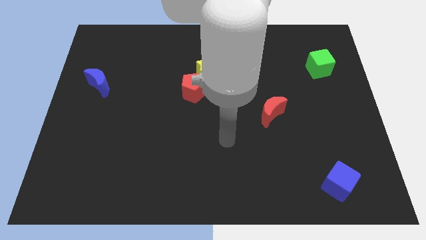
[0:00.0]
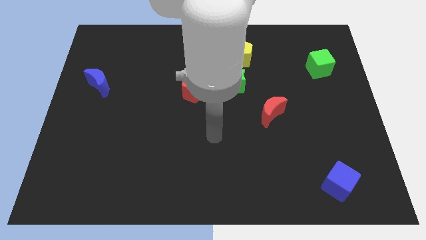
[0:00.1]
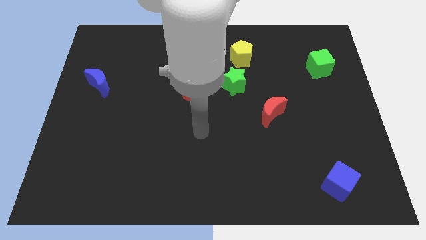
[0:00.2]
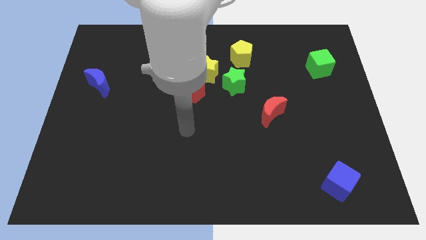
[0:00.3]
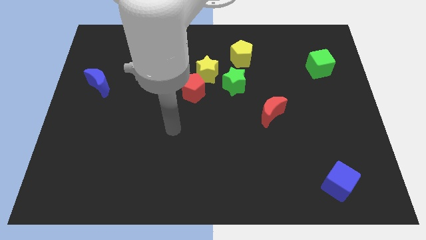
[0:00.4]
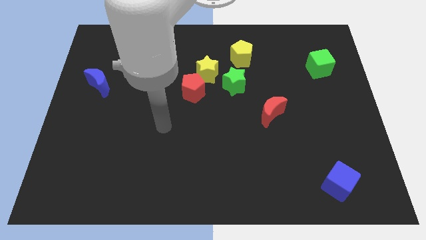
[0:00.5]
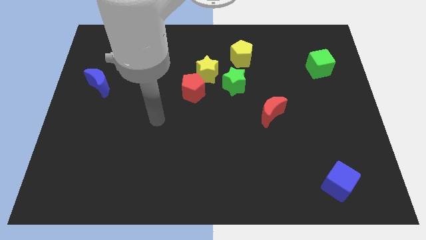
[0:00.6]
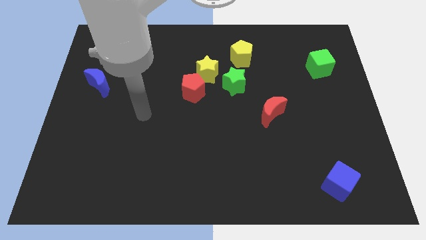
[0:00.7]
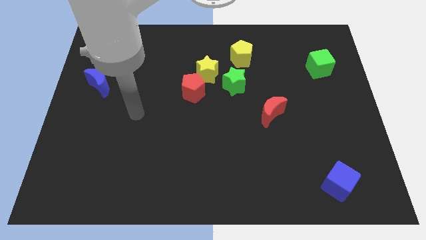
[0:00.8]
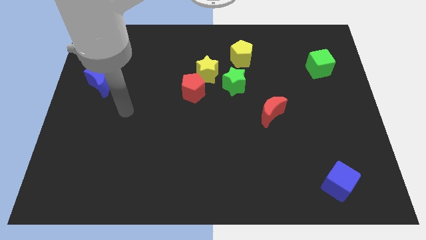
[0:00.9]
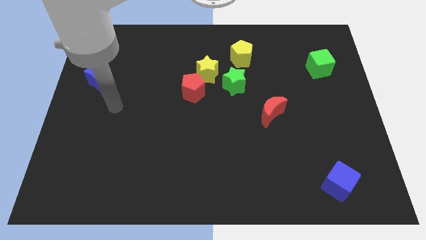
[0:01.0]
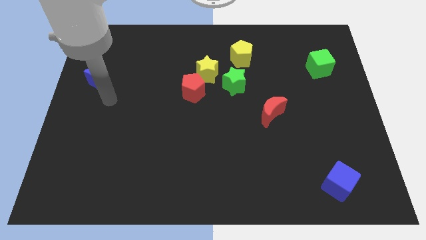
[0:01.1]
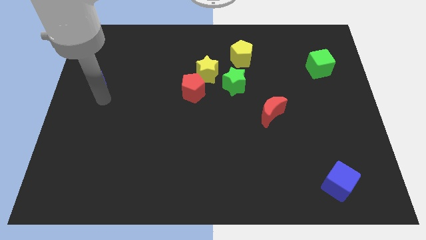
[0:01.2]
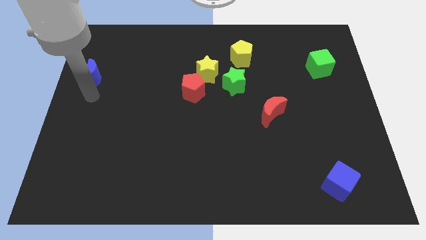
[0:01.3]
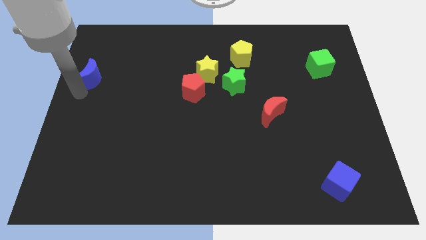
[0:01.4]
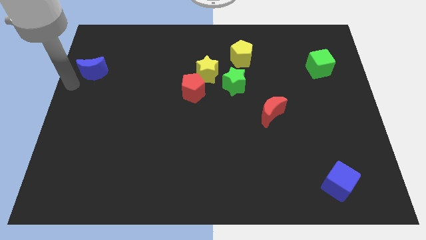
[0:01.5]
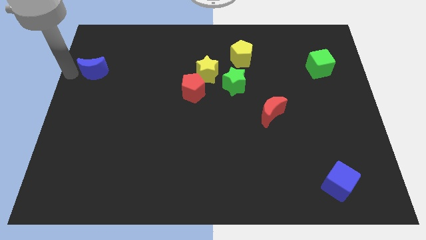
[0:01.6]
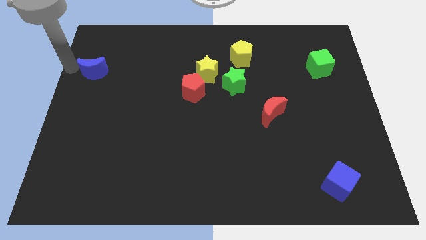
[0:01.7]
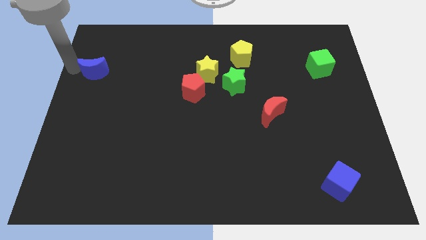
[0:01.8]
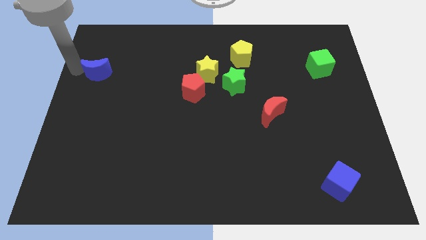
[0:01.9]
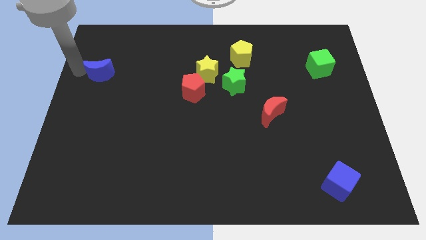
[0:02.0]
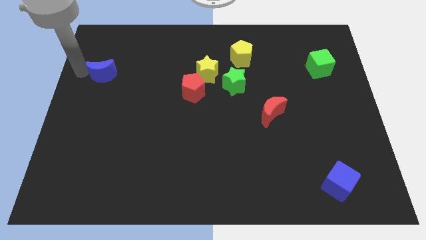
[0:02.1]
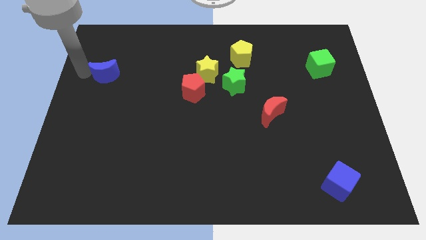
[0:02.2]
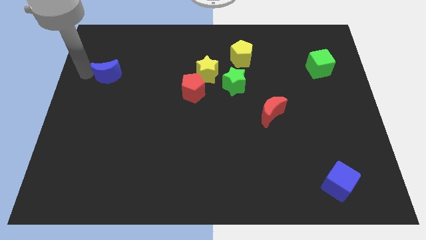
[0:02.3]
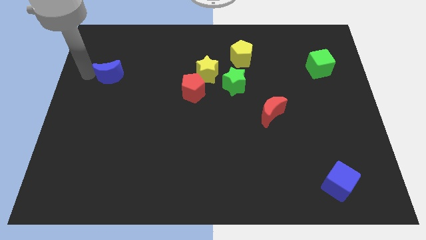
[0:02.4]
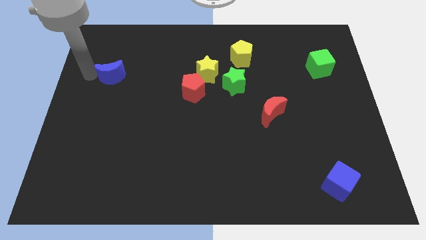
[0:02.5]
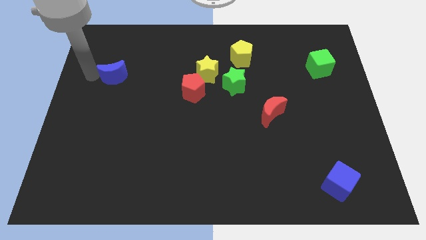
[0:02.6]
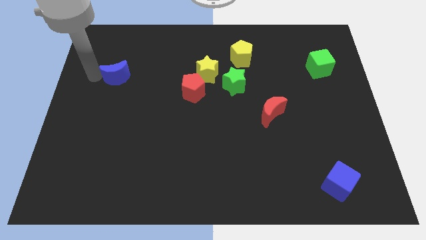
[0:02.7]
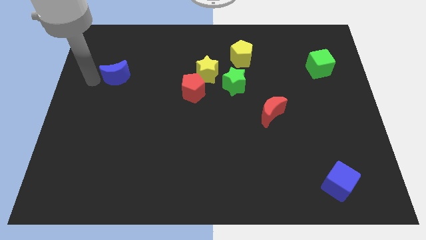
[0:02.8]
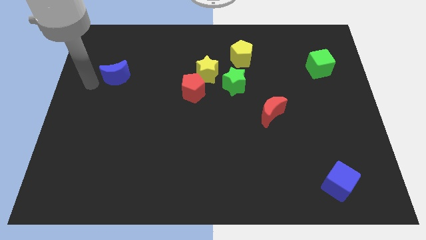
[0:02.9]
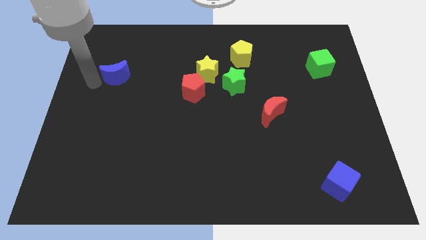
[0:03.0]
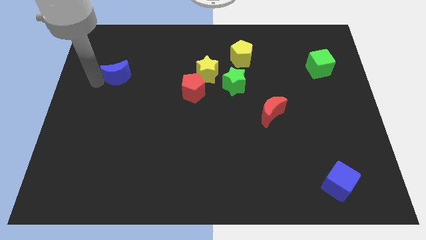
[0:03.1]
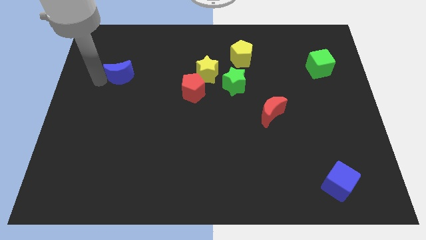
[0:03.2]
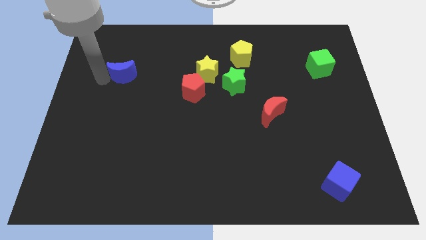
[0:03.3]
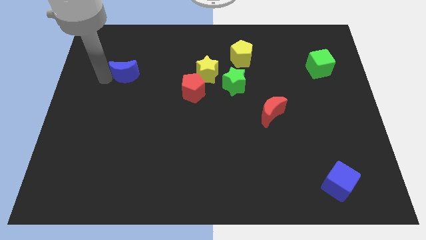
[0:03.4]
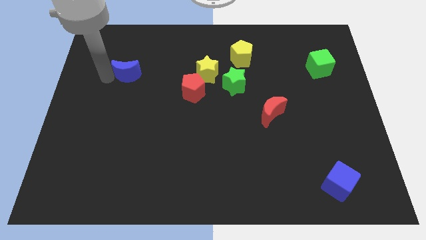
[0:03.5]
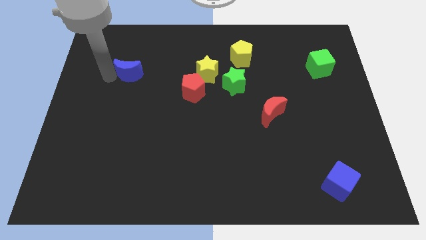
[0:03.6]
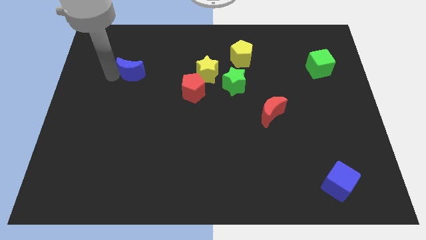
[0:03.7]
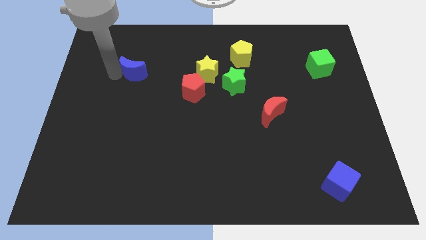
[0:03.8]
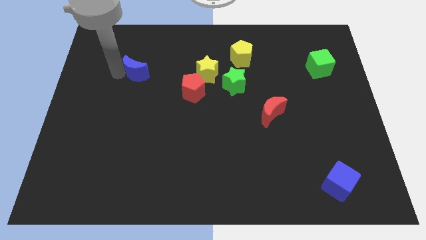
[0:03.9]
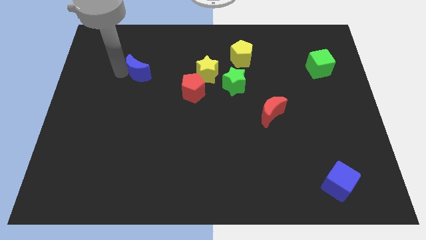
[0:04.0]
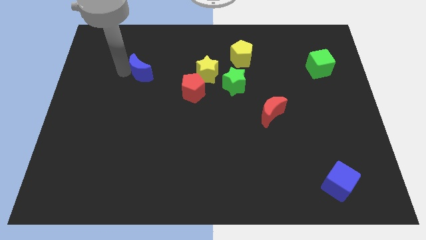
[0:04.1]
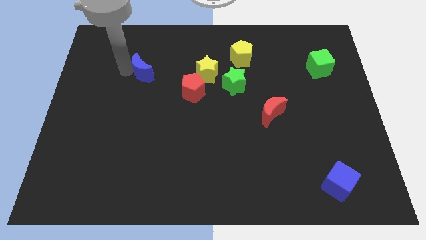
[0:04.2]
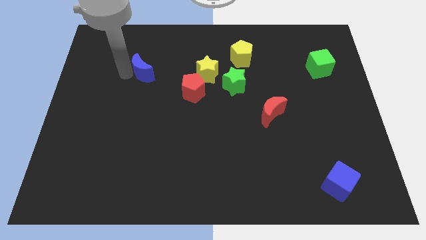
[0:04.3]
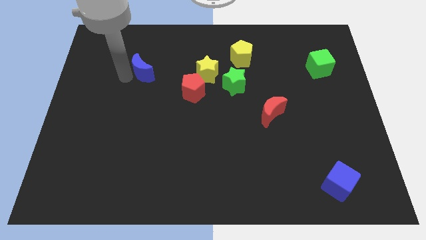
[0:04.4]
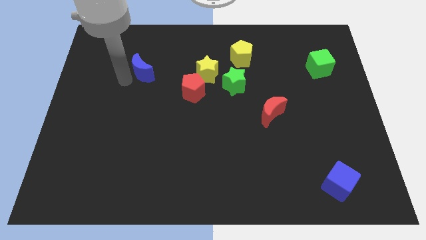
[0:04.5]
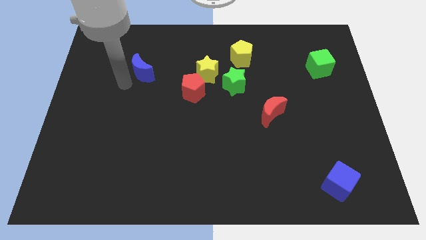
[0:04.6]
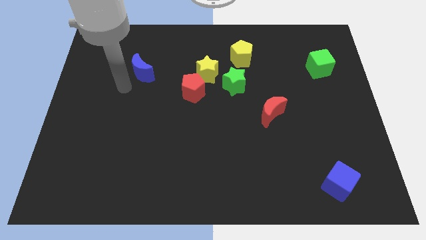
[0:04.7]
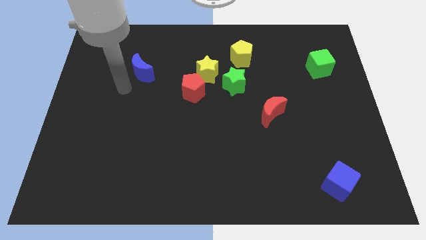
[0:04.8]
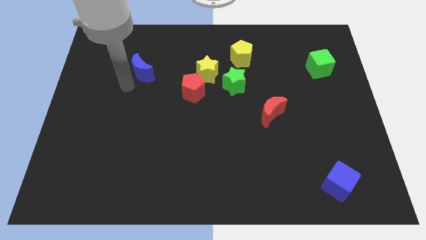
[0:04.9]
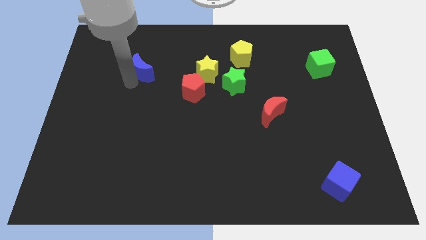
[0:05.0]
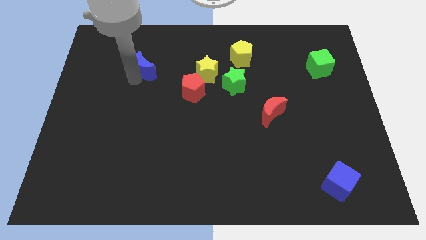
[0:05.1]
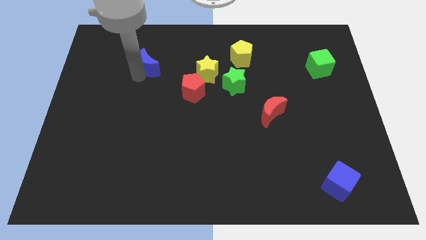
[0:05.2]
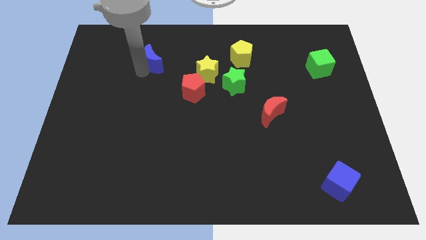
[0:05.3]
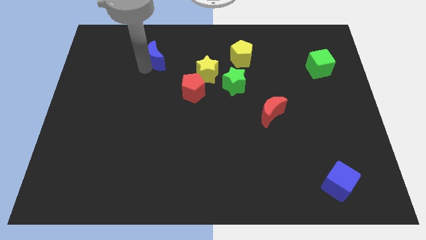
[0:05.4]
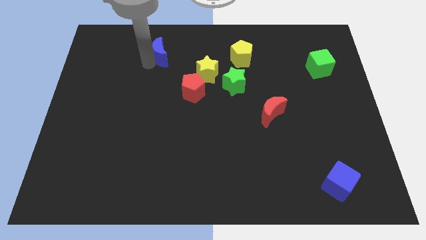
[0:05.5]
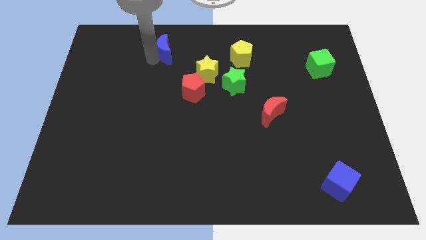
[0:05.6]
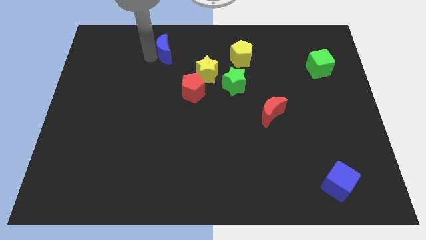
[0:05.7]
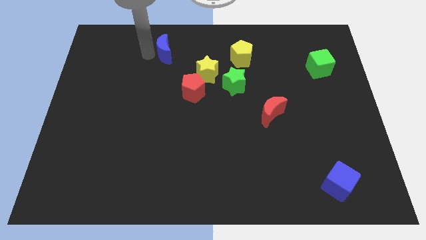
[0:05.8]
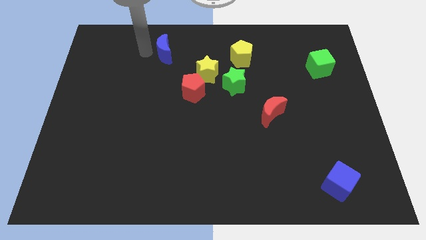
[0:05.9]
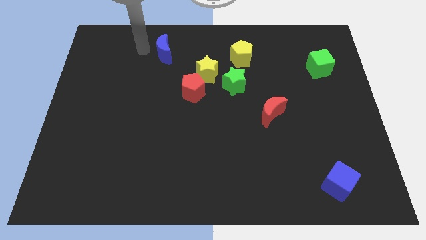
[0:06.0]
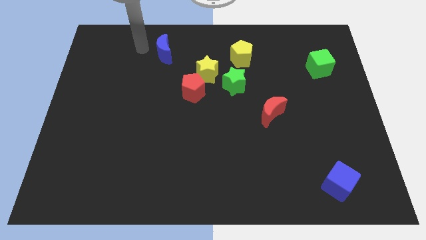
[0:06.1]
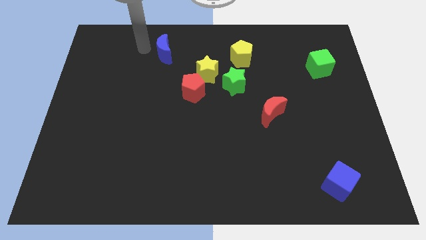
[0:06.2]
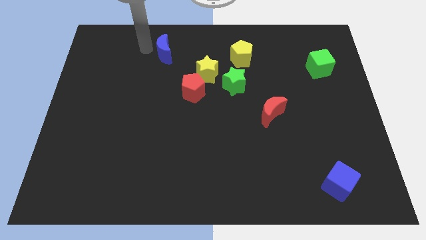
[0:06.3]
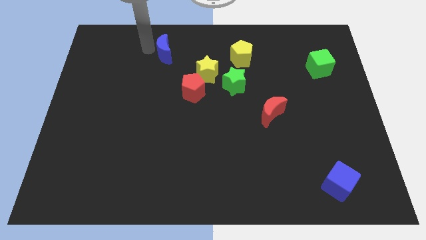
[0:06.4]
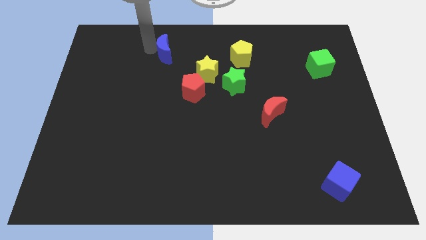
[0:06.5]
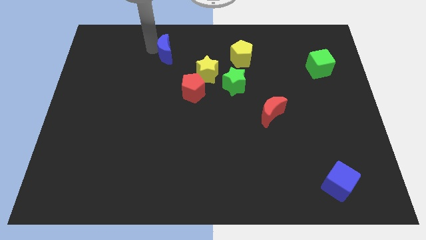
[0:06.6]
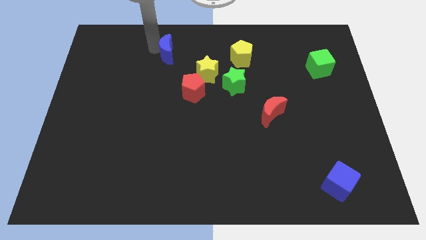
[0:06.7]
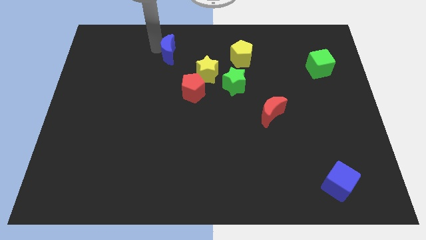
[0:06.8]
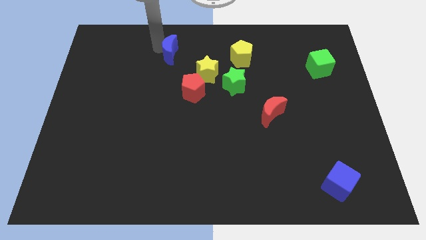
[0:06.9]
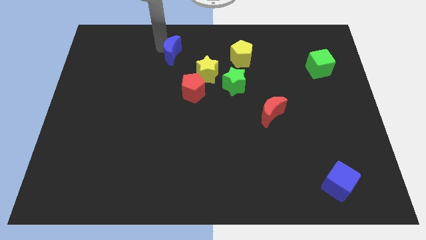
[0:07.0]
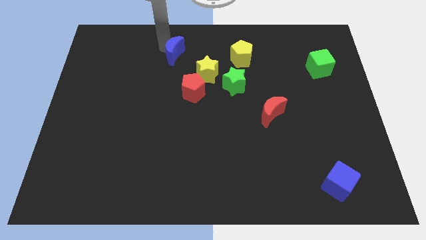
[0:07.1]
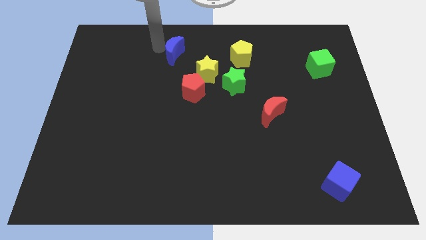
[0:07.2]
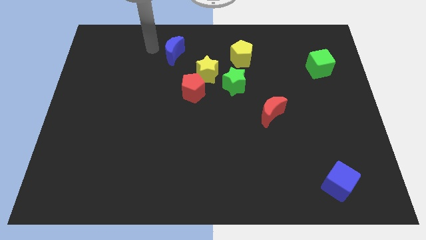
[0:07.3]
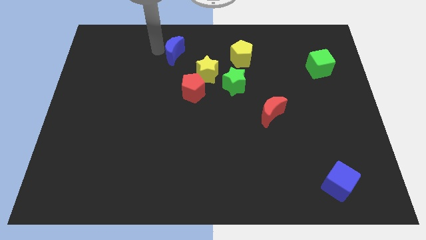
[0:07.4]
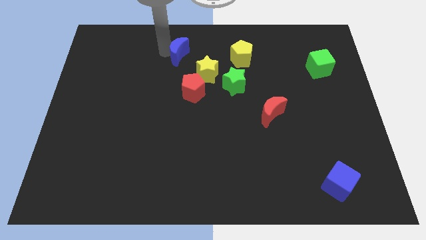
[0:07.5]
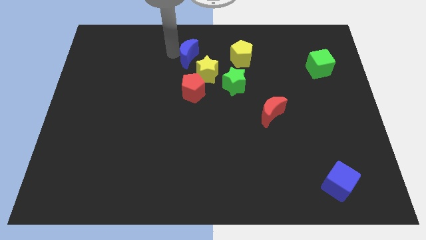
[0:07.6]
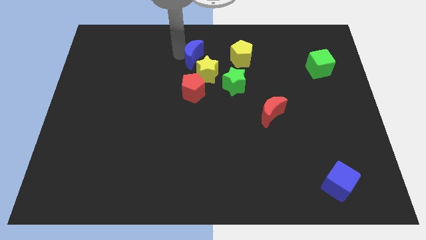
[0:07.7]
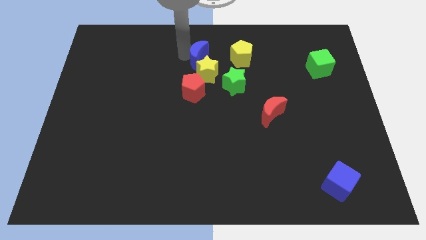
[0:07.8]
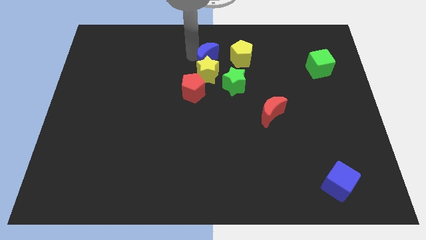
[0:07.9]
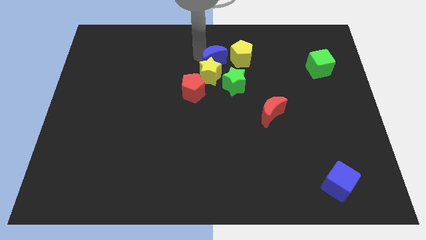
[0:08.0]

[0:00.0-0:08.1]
put the blue moon diagonally down and to the left of the yellow pentagon
